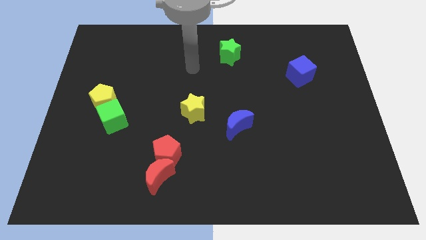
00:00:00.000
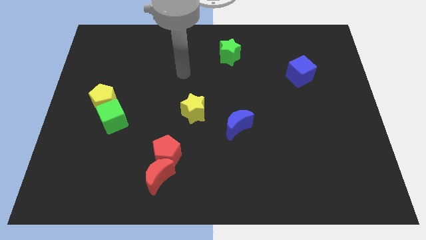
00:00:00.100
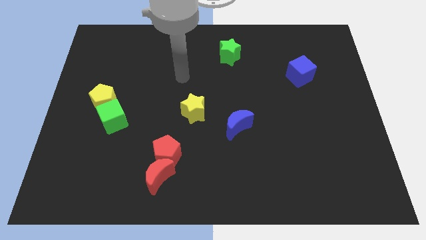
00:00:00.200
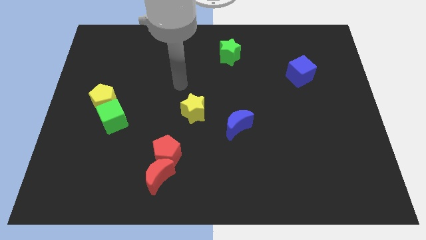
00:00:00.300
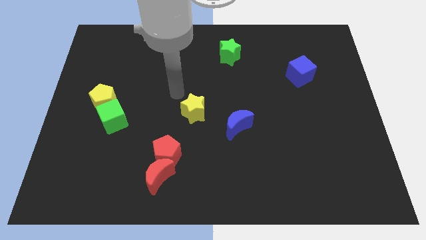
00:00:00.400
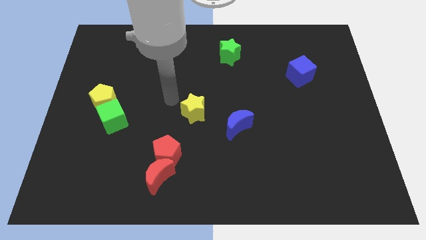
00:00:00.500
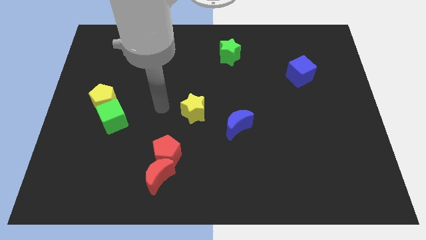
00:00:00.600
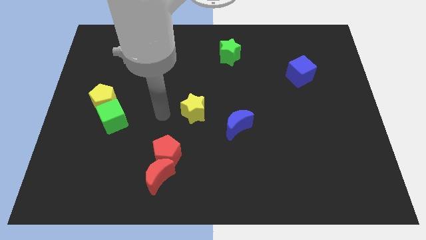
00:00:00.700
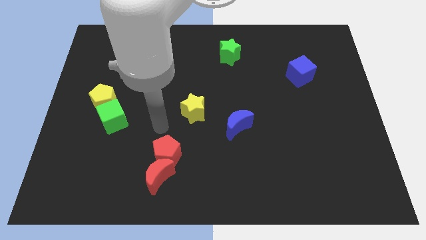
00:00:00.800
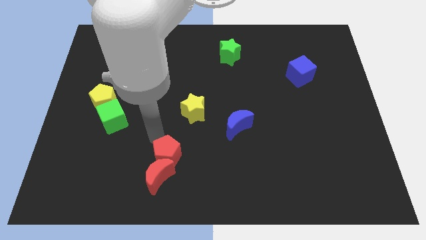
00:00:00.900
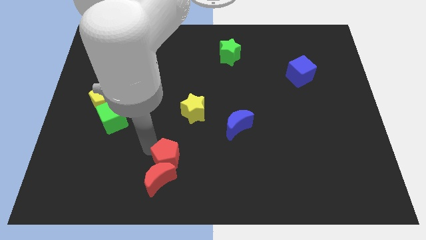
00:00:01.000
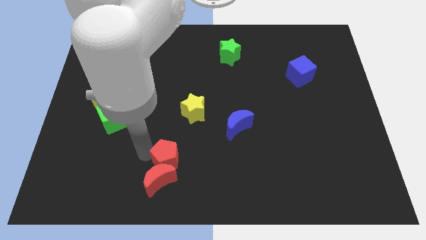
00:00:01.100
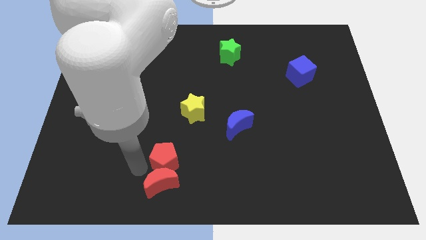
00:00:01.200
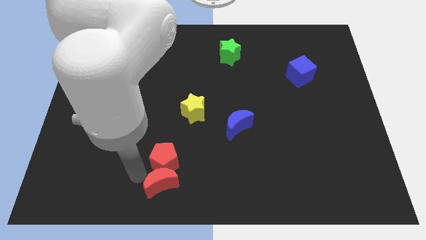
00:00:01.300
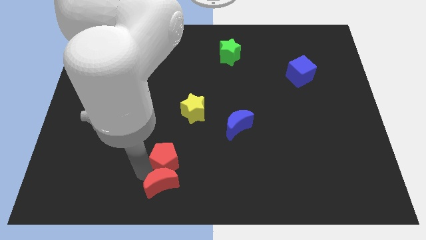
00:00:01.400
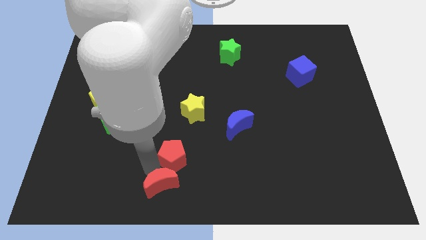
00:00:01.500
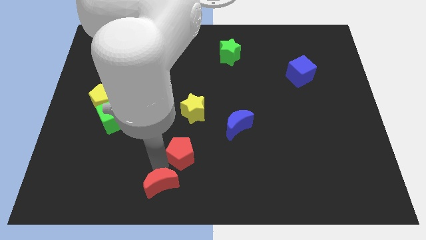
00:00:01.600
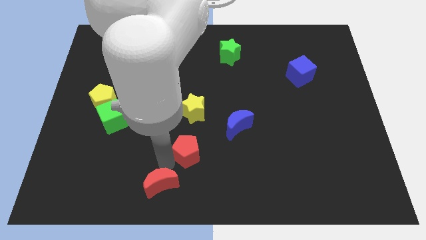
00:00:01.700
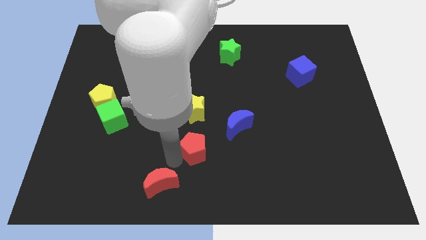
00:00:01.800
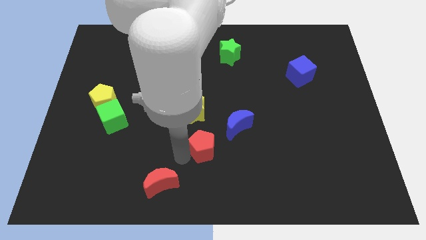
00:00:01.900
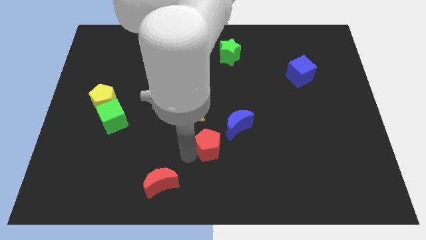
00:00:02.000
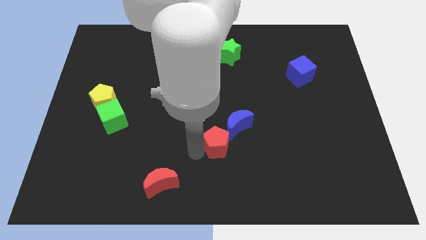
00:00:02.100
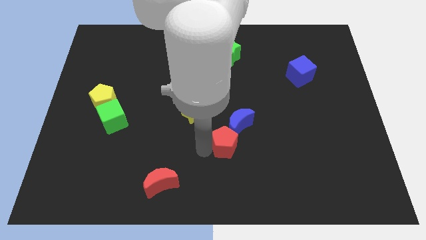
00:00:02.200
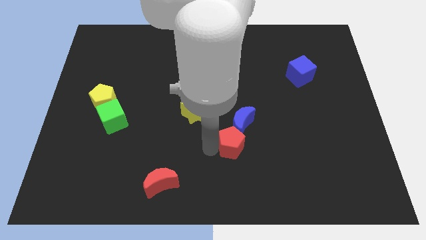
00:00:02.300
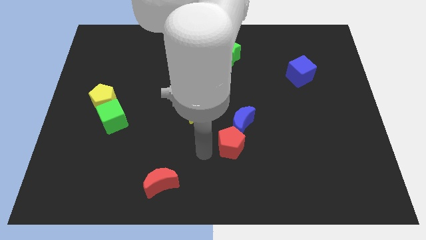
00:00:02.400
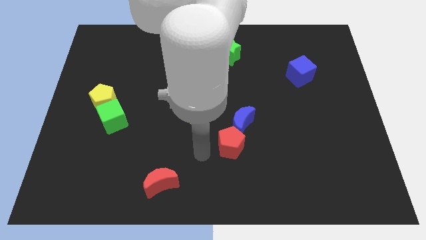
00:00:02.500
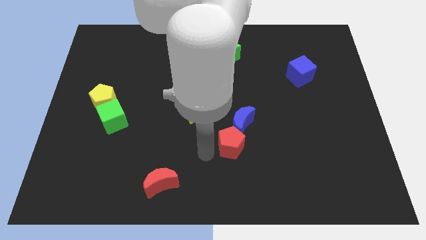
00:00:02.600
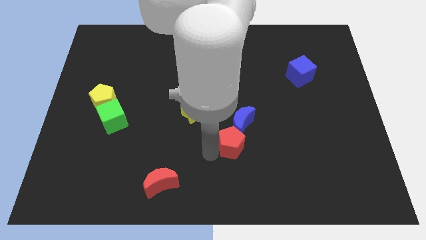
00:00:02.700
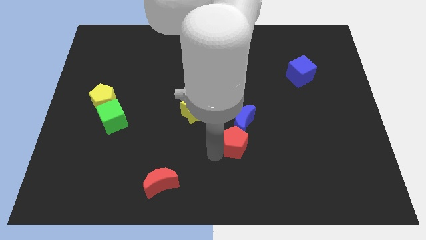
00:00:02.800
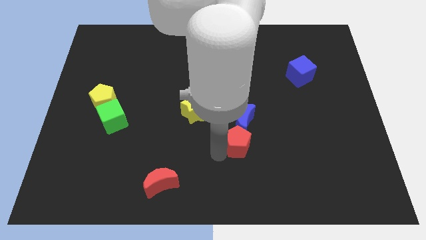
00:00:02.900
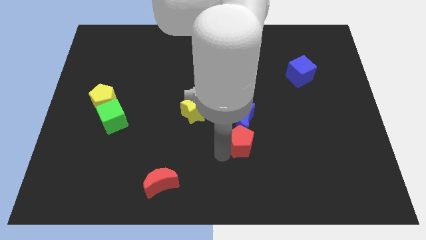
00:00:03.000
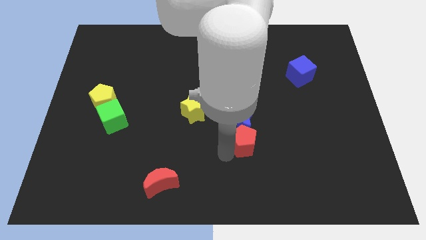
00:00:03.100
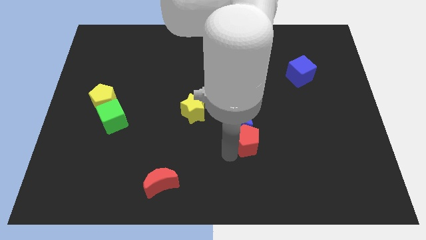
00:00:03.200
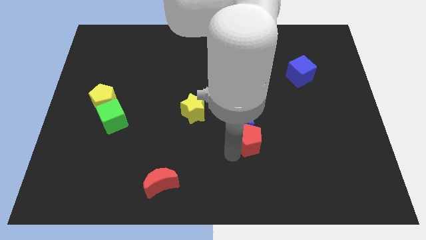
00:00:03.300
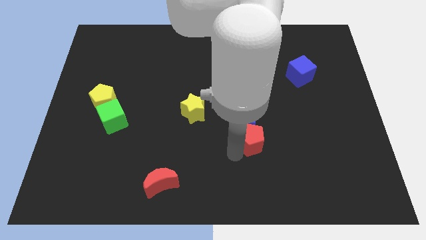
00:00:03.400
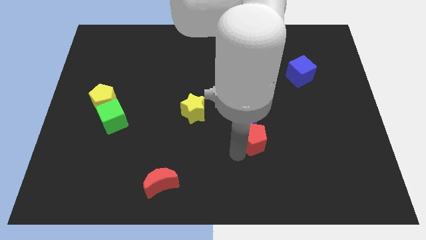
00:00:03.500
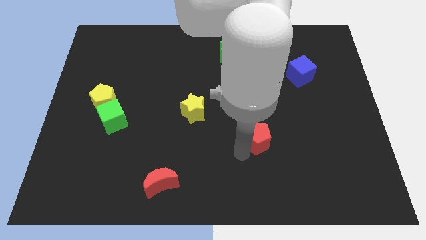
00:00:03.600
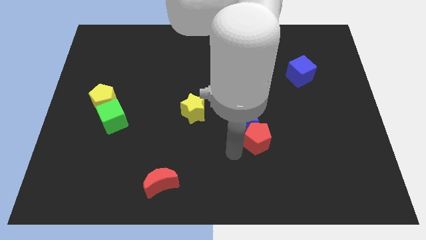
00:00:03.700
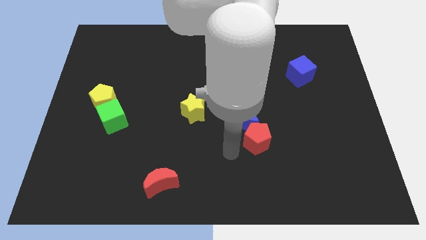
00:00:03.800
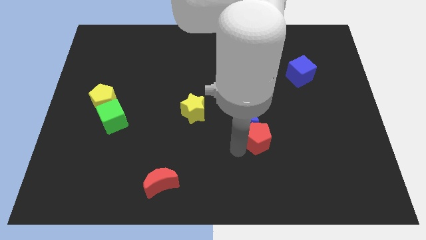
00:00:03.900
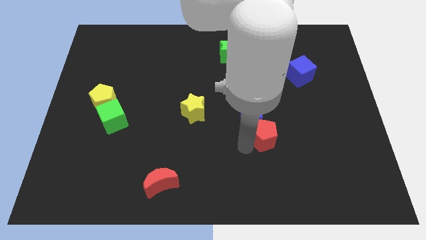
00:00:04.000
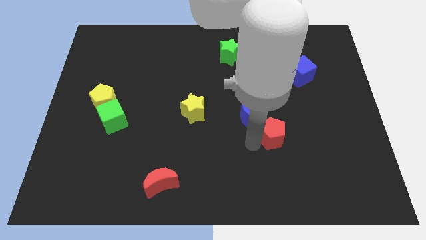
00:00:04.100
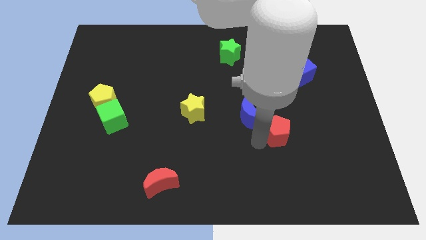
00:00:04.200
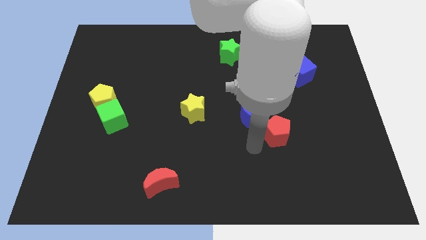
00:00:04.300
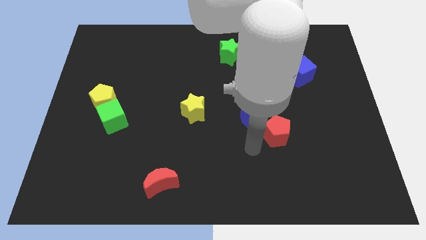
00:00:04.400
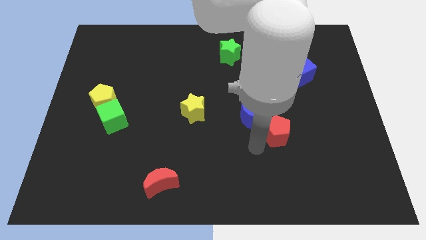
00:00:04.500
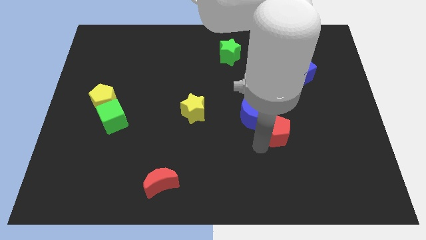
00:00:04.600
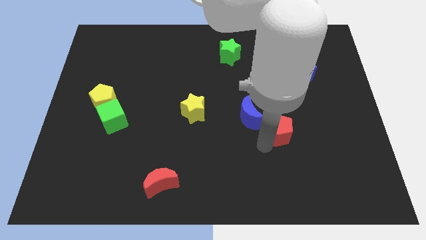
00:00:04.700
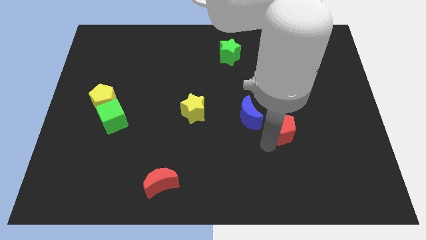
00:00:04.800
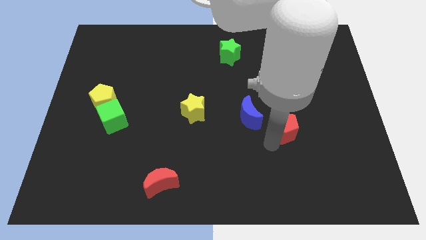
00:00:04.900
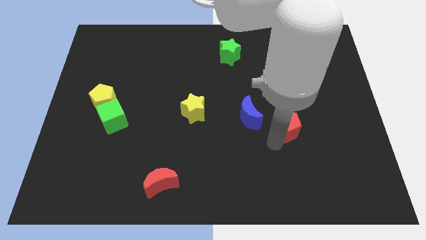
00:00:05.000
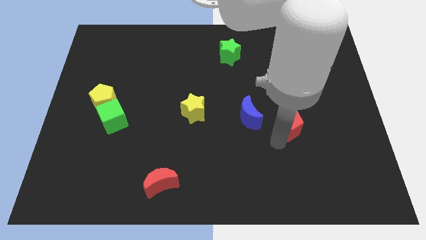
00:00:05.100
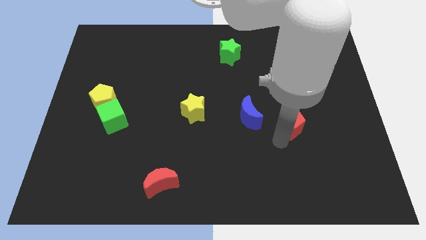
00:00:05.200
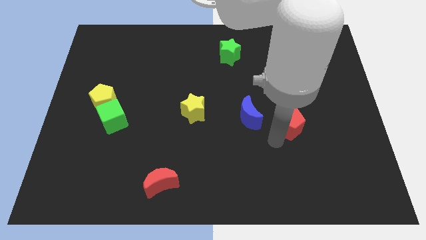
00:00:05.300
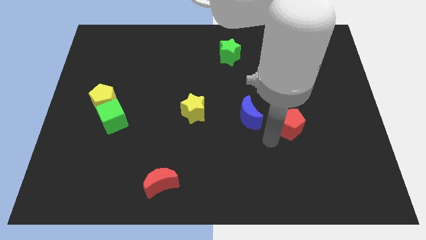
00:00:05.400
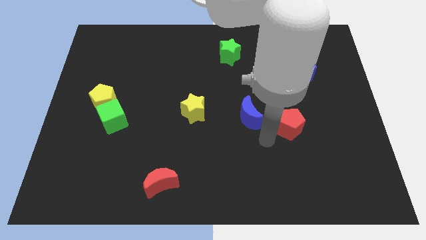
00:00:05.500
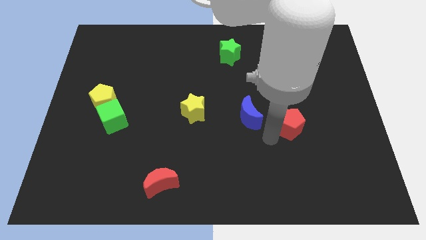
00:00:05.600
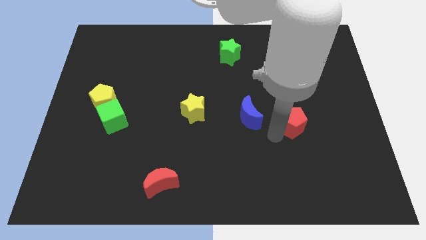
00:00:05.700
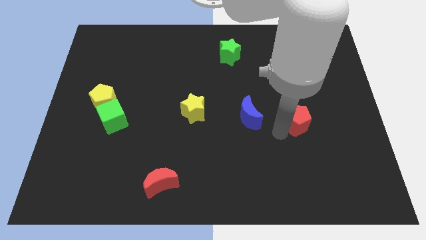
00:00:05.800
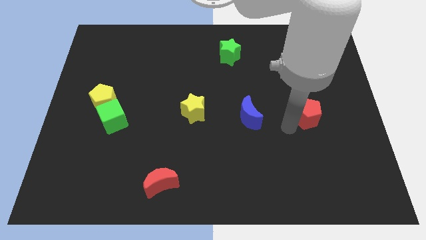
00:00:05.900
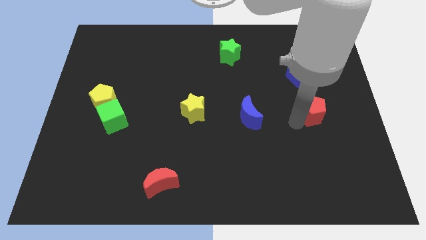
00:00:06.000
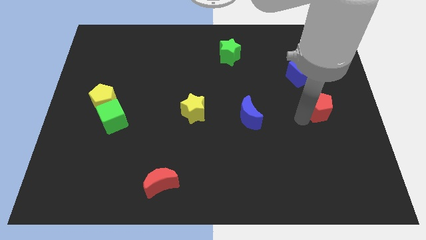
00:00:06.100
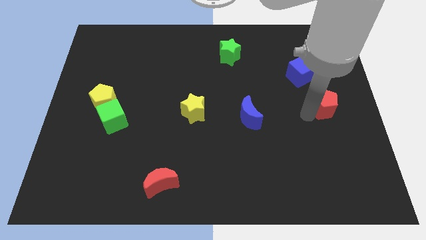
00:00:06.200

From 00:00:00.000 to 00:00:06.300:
slide the red pentagon to the right side of the board

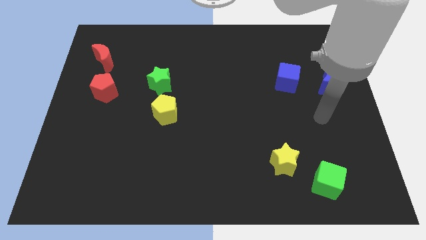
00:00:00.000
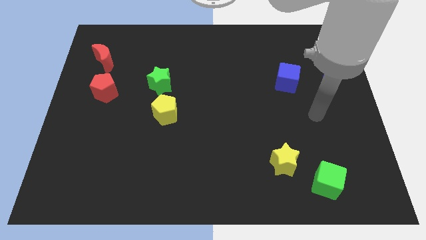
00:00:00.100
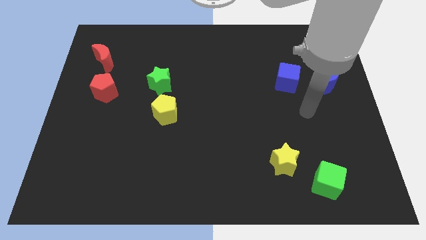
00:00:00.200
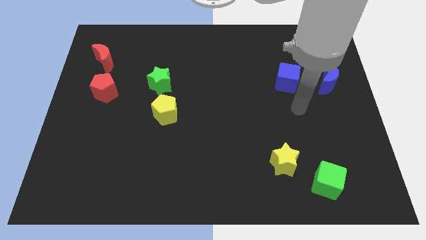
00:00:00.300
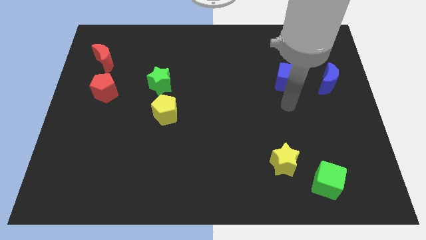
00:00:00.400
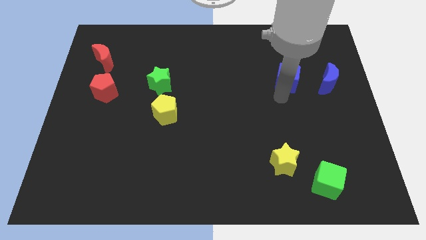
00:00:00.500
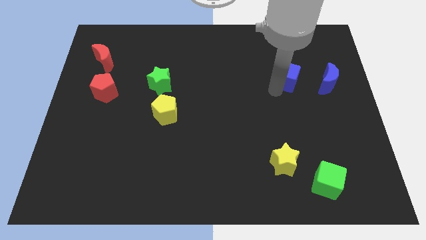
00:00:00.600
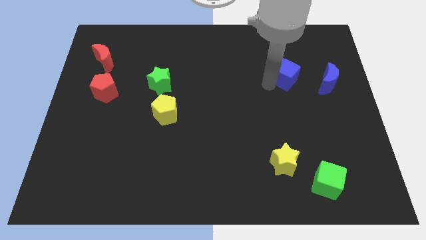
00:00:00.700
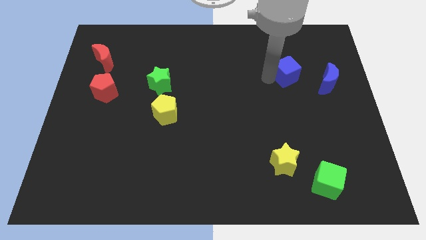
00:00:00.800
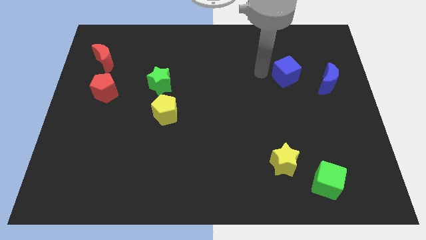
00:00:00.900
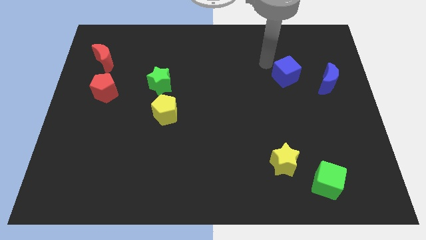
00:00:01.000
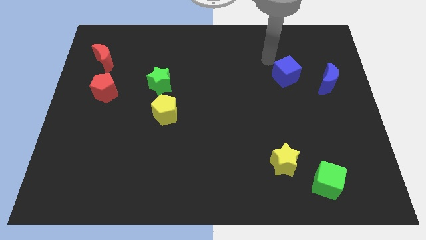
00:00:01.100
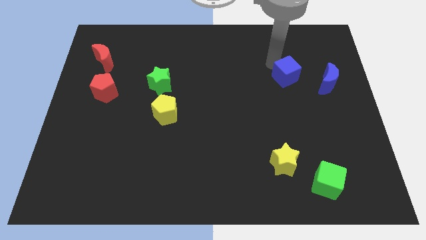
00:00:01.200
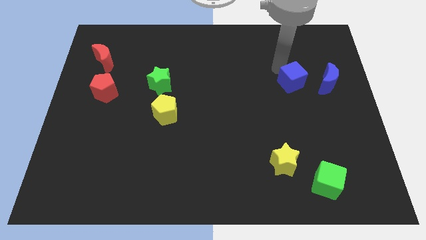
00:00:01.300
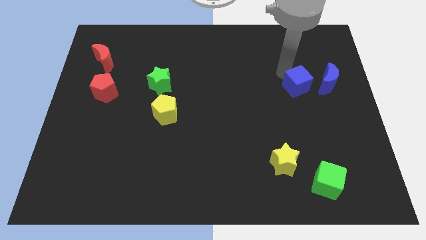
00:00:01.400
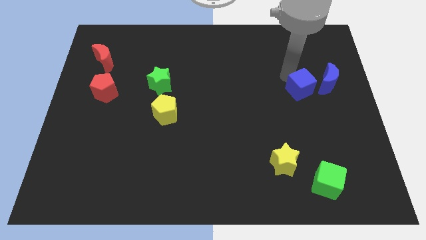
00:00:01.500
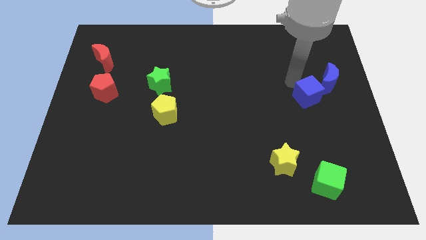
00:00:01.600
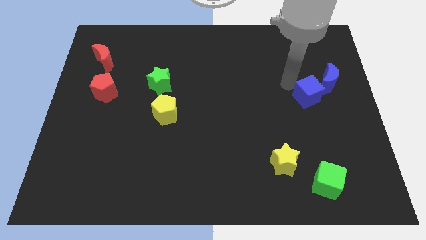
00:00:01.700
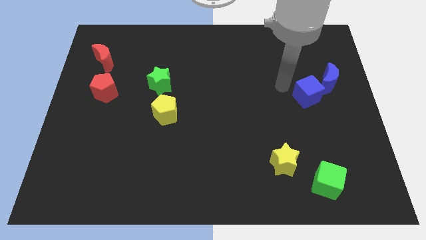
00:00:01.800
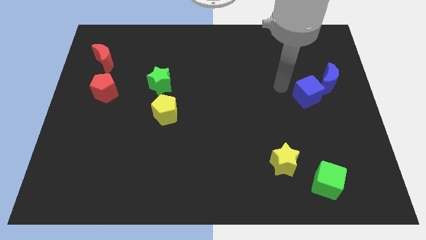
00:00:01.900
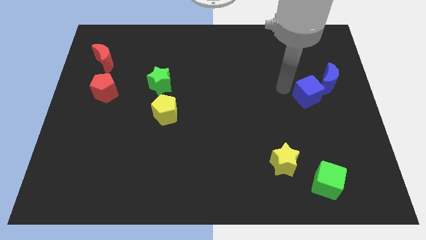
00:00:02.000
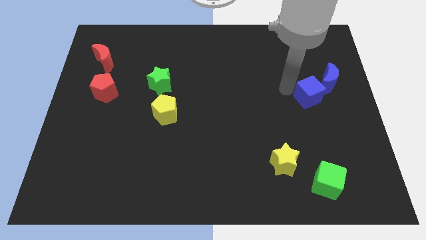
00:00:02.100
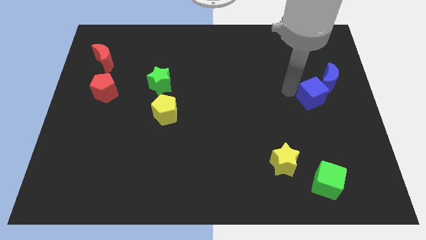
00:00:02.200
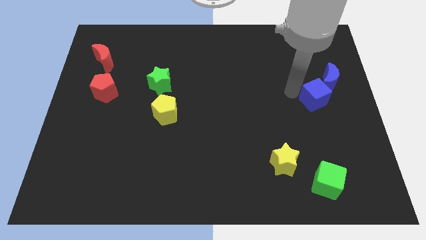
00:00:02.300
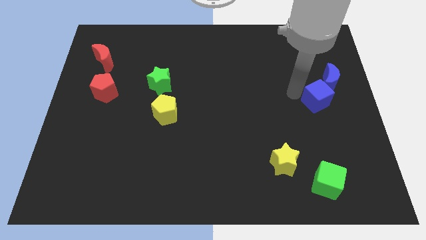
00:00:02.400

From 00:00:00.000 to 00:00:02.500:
slide the blue cube to the right side
